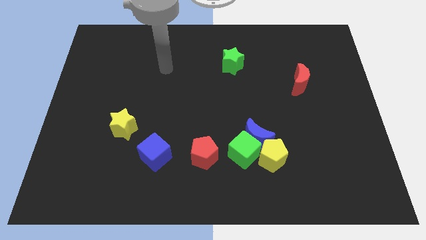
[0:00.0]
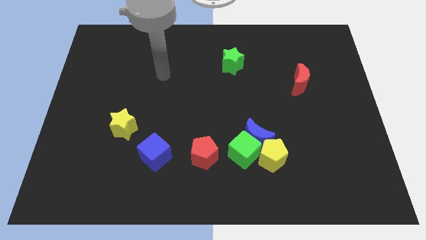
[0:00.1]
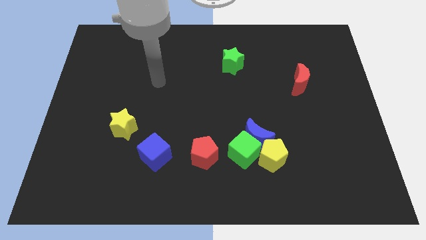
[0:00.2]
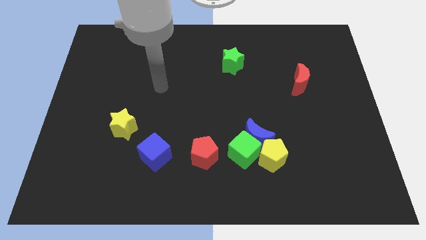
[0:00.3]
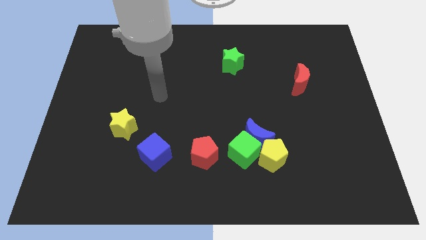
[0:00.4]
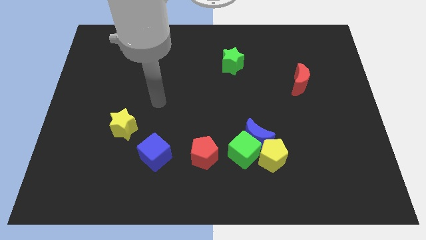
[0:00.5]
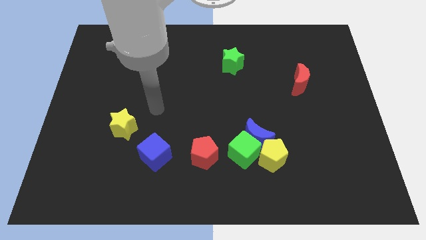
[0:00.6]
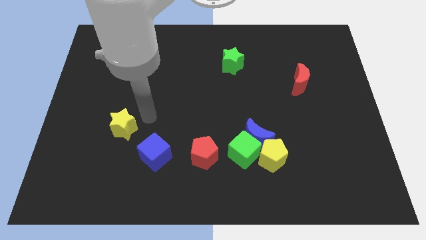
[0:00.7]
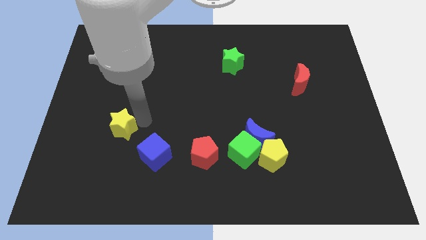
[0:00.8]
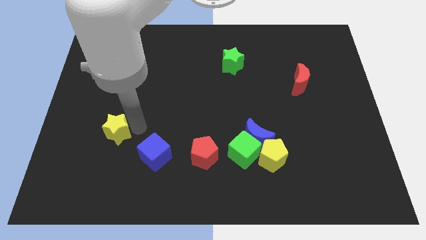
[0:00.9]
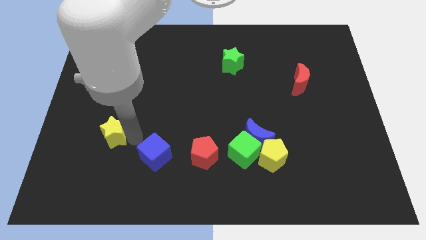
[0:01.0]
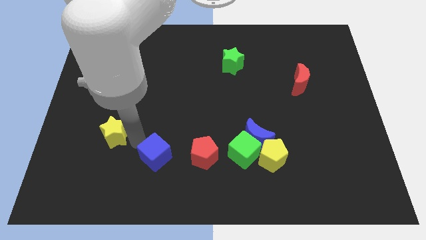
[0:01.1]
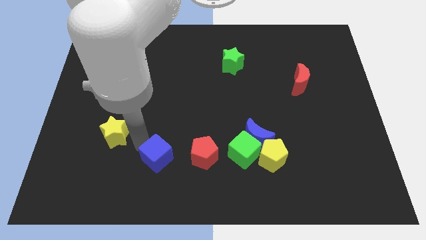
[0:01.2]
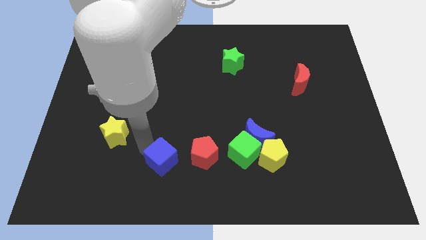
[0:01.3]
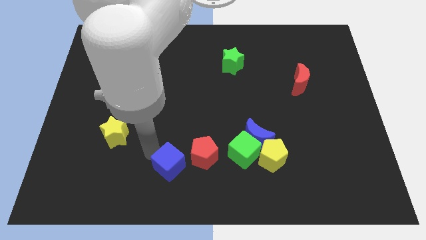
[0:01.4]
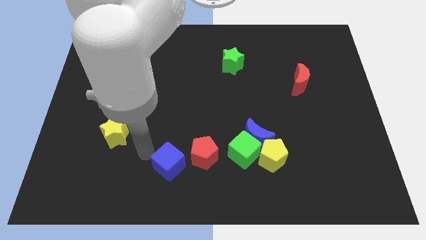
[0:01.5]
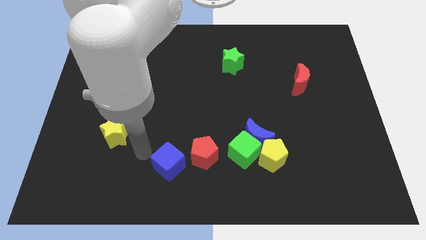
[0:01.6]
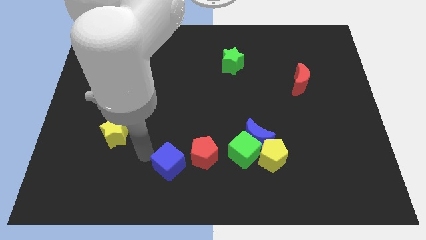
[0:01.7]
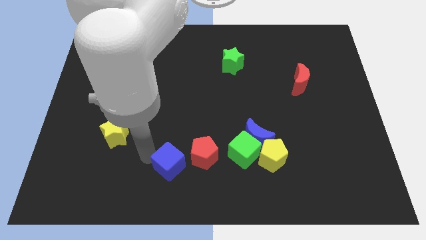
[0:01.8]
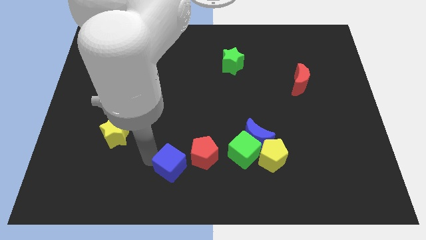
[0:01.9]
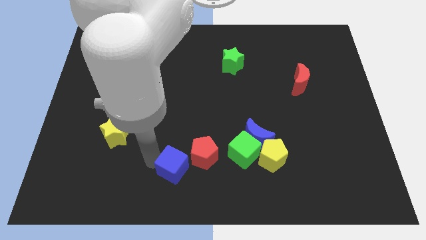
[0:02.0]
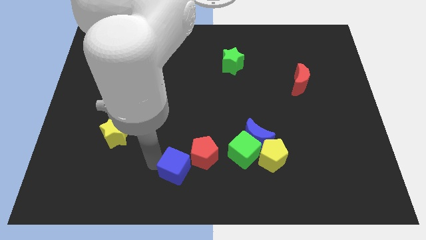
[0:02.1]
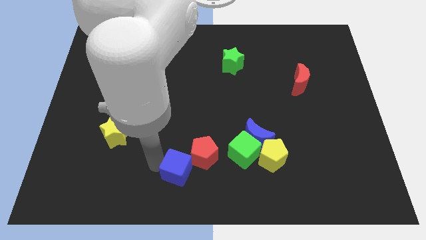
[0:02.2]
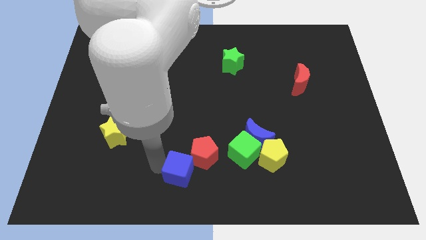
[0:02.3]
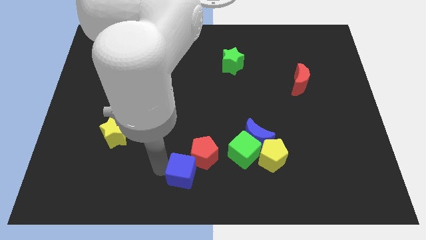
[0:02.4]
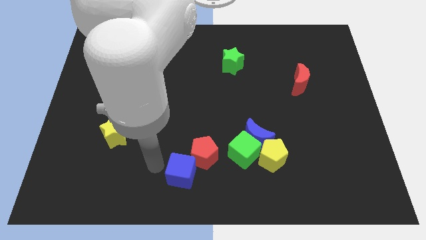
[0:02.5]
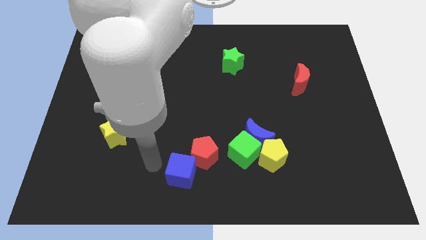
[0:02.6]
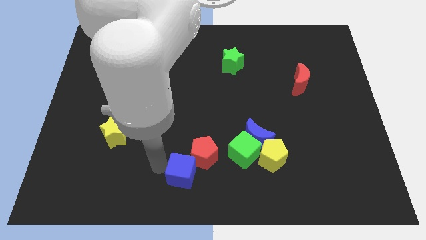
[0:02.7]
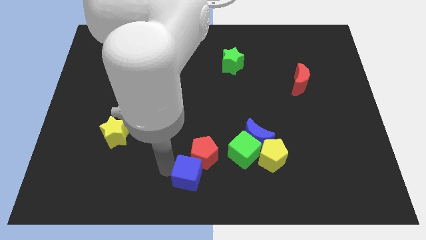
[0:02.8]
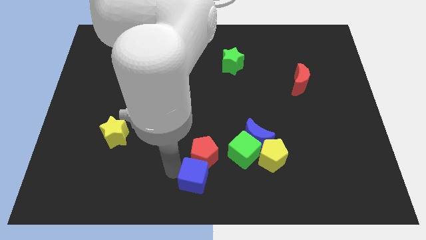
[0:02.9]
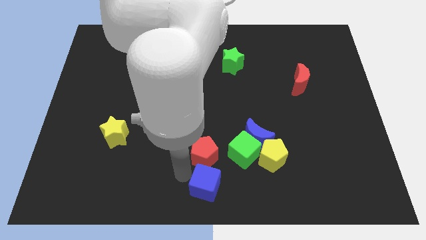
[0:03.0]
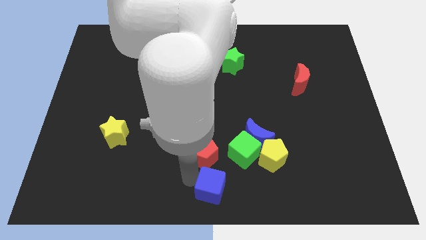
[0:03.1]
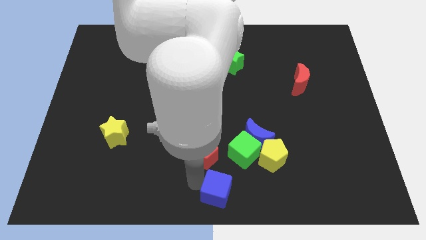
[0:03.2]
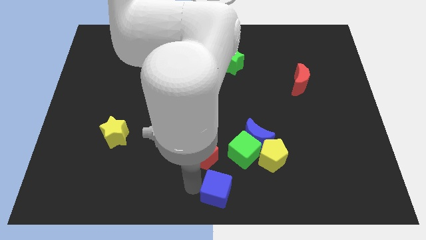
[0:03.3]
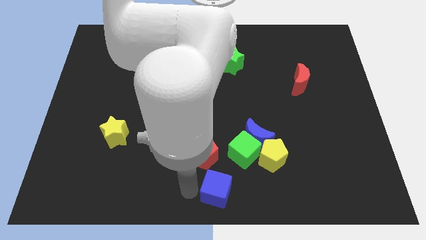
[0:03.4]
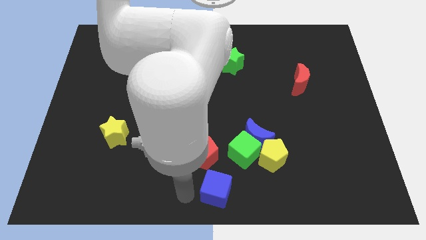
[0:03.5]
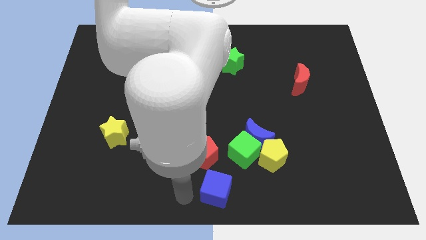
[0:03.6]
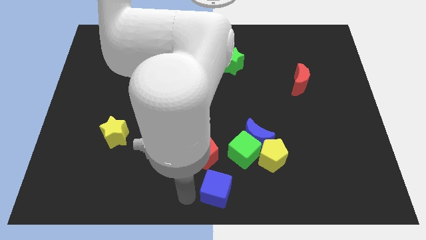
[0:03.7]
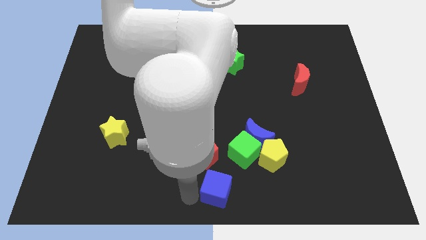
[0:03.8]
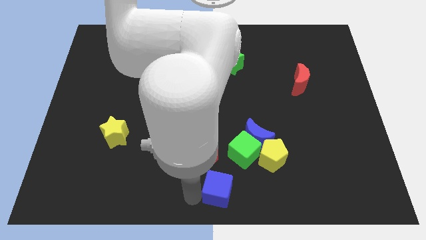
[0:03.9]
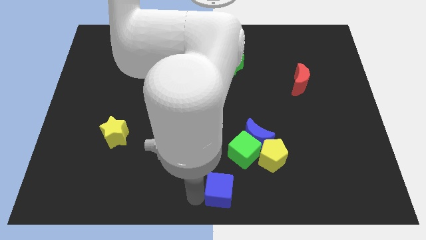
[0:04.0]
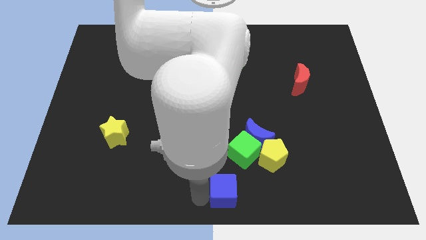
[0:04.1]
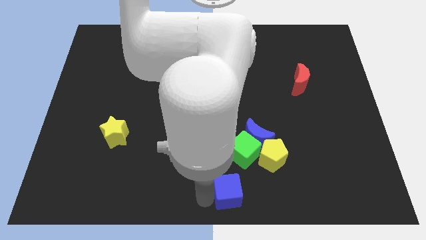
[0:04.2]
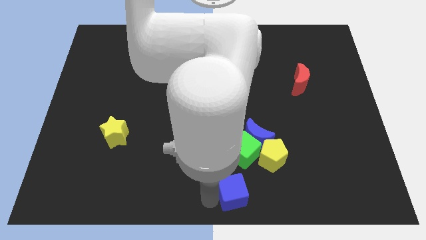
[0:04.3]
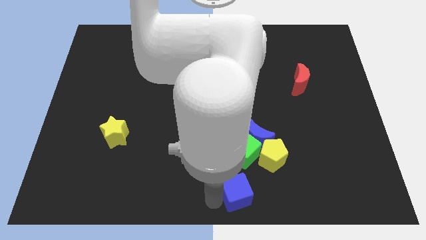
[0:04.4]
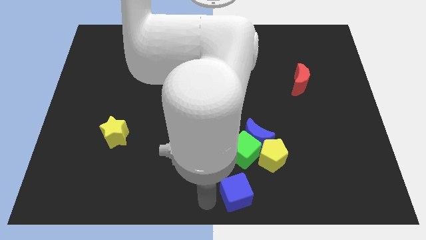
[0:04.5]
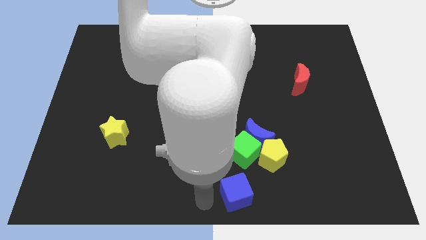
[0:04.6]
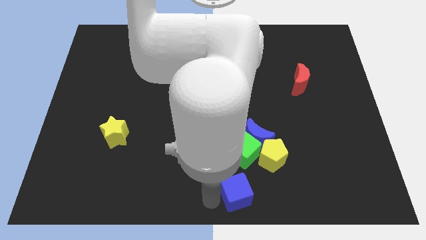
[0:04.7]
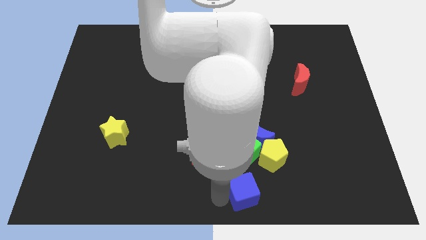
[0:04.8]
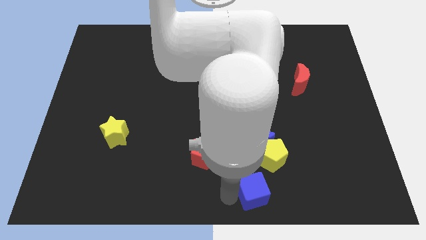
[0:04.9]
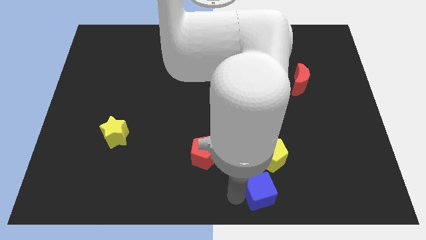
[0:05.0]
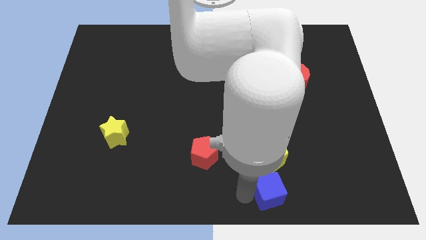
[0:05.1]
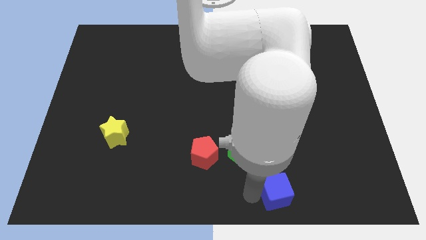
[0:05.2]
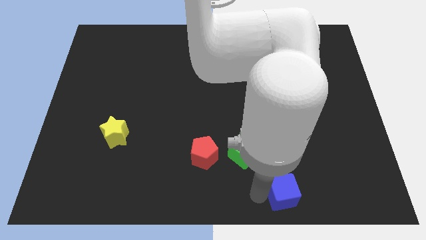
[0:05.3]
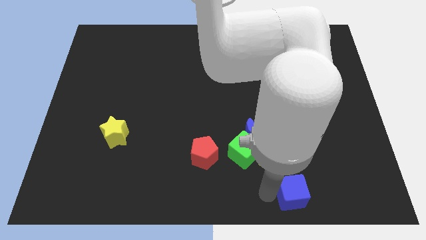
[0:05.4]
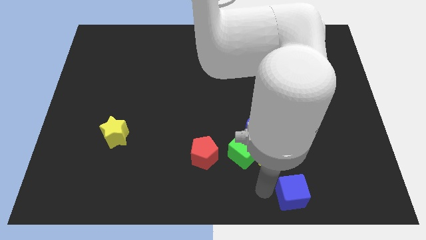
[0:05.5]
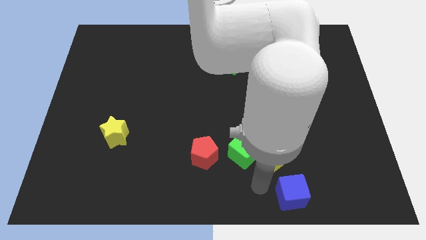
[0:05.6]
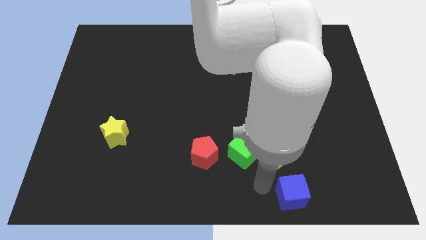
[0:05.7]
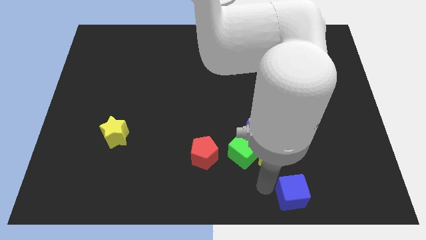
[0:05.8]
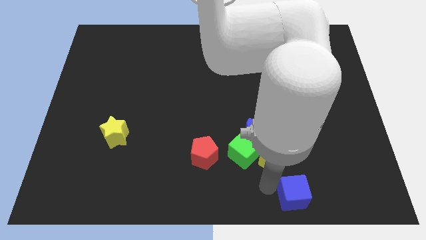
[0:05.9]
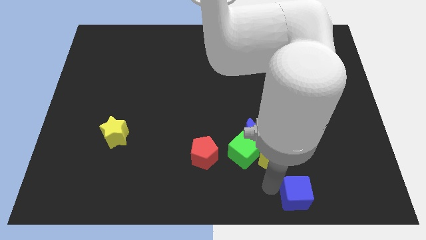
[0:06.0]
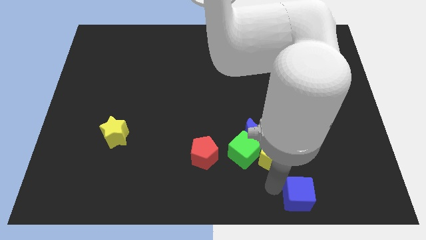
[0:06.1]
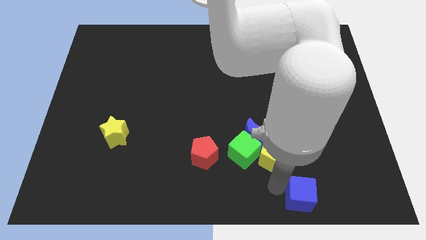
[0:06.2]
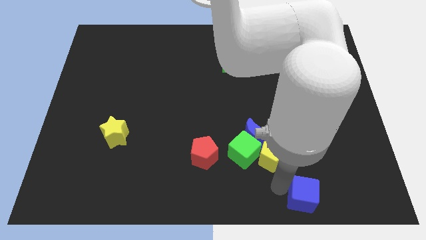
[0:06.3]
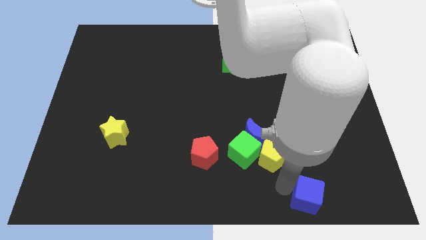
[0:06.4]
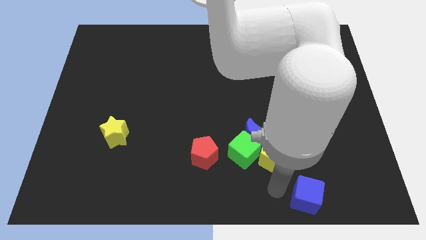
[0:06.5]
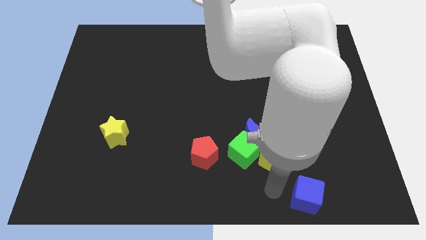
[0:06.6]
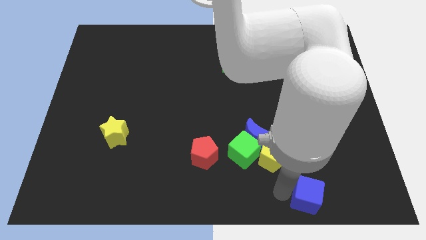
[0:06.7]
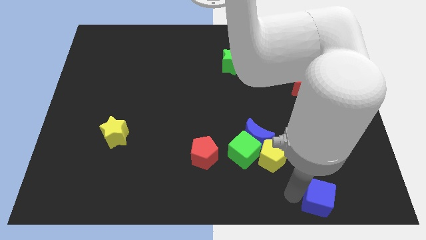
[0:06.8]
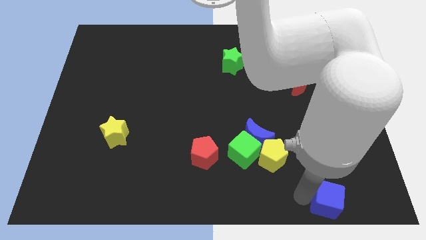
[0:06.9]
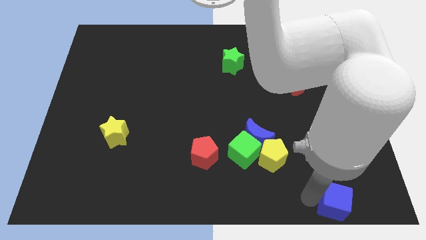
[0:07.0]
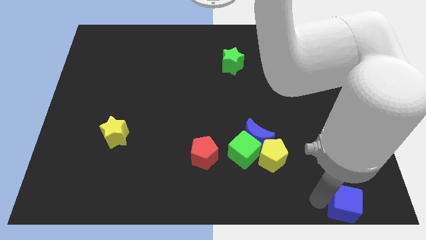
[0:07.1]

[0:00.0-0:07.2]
put the blue cube to the lower right corner
